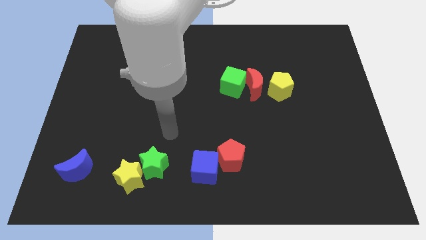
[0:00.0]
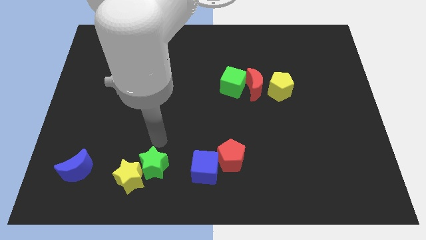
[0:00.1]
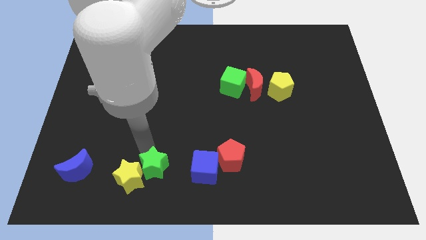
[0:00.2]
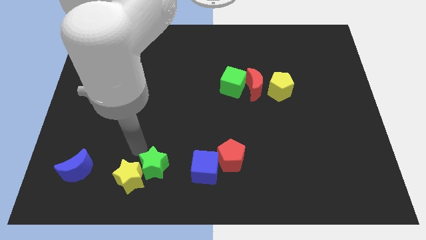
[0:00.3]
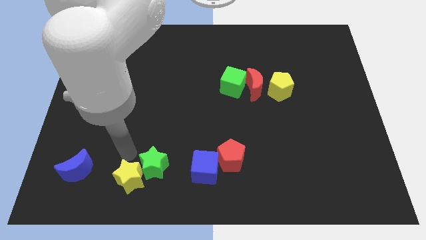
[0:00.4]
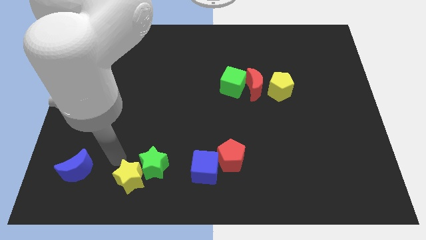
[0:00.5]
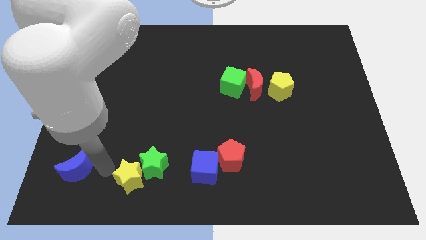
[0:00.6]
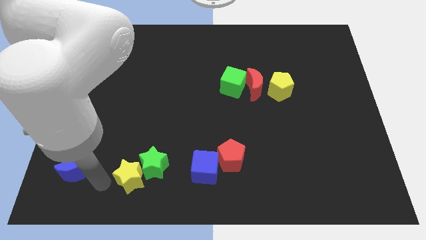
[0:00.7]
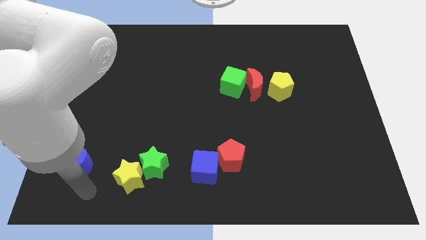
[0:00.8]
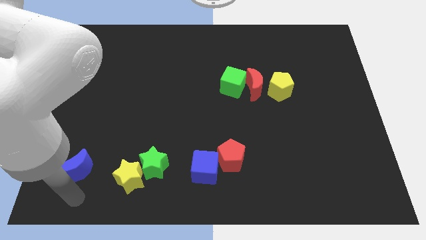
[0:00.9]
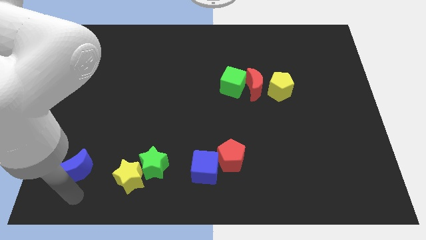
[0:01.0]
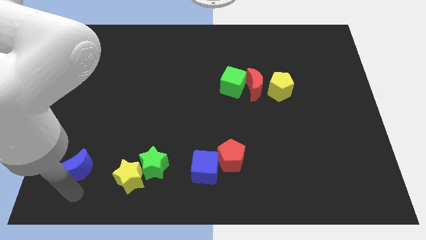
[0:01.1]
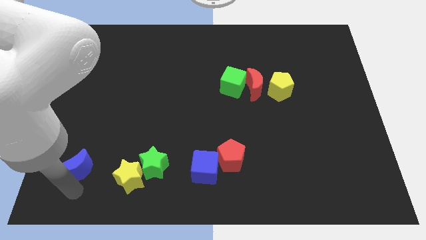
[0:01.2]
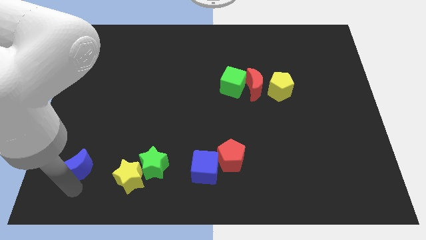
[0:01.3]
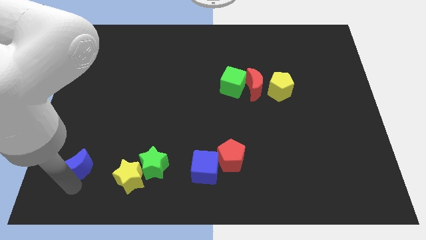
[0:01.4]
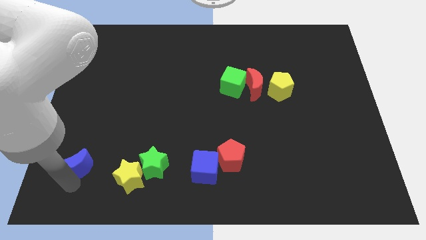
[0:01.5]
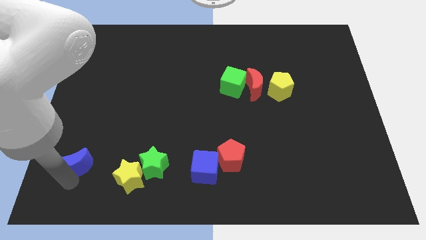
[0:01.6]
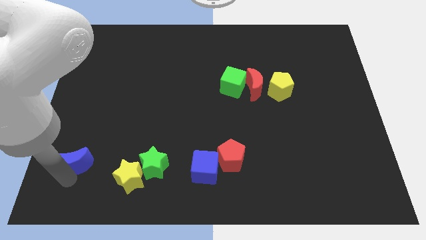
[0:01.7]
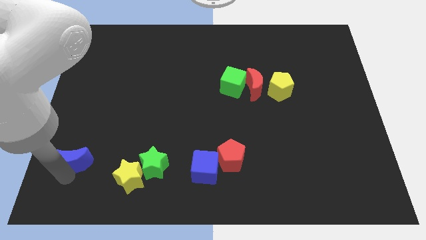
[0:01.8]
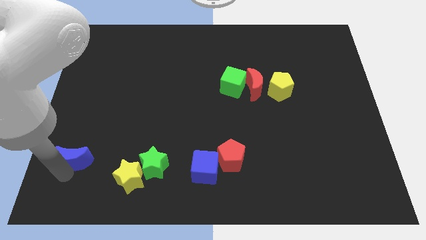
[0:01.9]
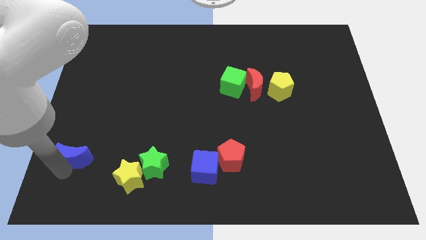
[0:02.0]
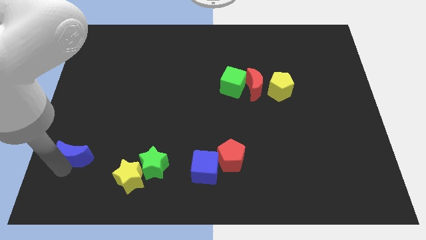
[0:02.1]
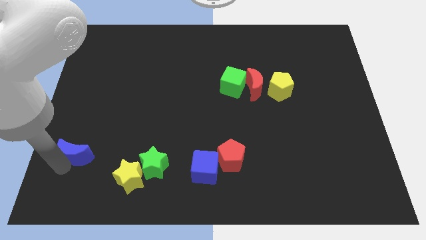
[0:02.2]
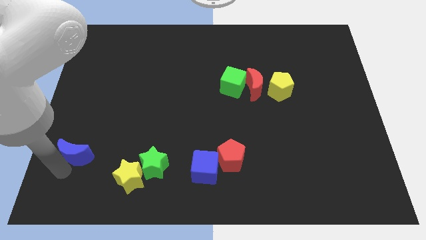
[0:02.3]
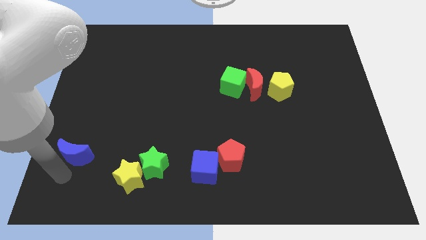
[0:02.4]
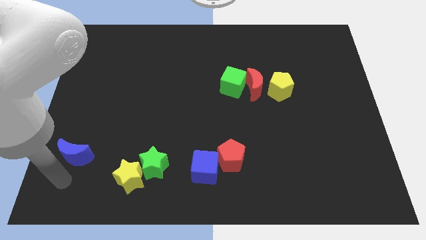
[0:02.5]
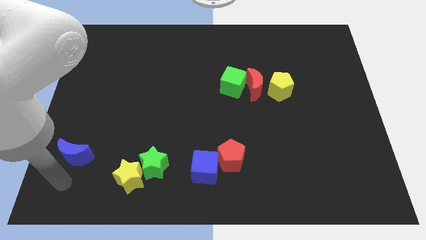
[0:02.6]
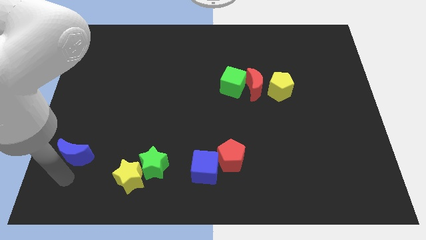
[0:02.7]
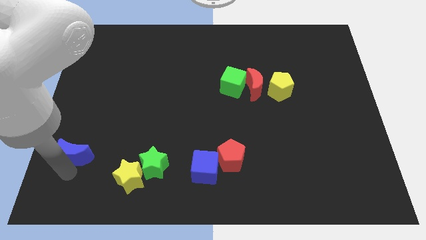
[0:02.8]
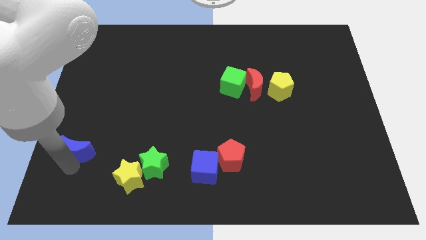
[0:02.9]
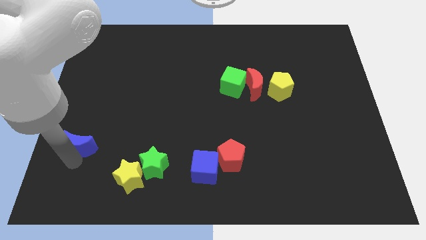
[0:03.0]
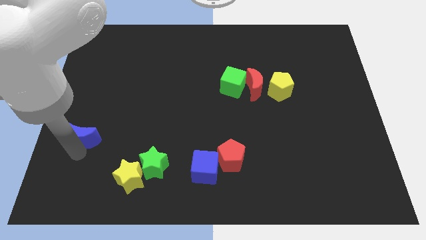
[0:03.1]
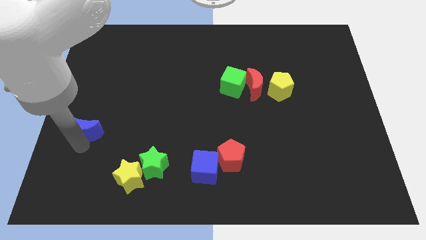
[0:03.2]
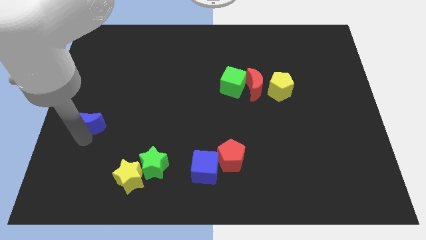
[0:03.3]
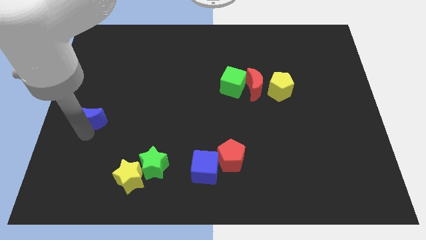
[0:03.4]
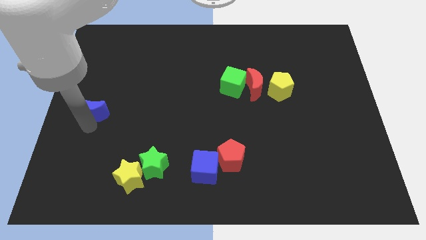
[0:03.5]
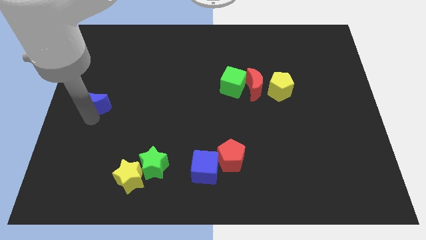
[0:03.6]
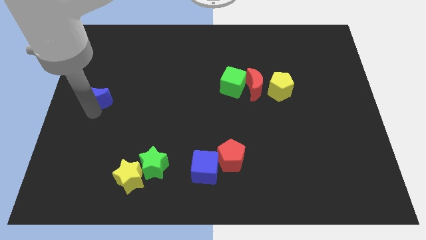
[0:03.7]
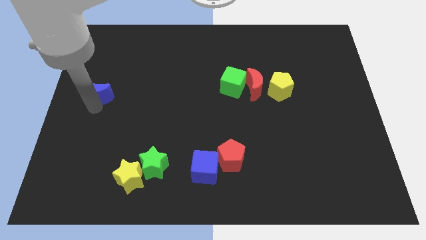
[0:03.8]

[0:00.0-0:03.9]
slide the blue moon up

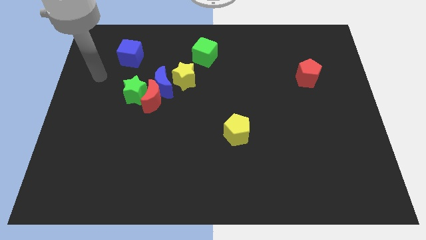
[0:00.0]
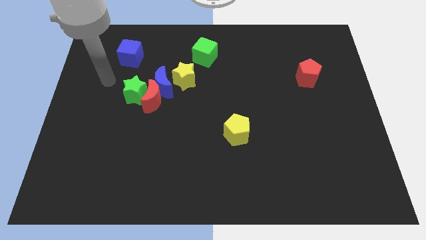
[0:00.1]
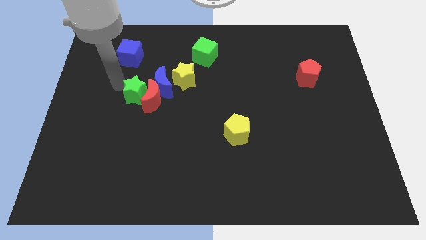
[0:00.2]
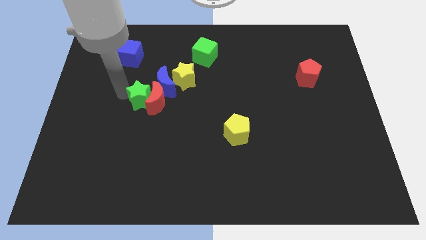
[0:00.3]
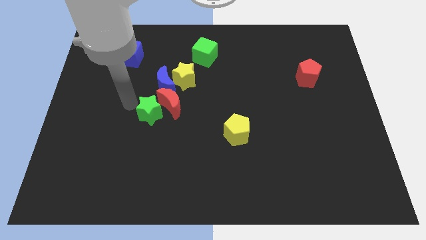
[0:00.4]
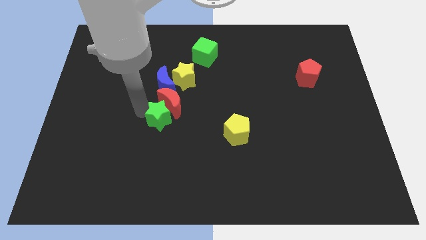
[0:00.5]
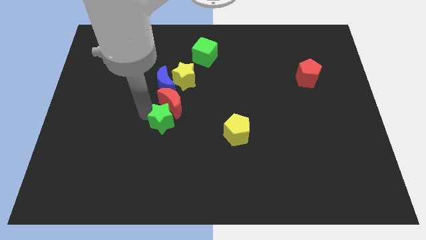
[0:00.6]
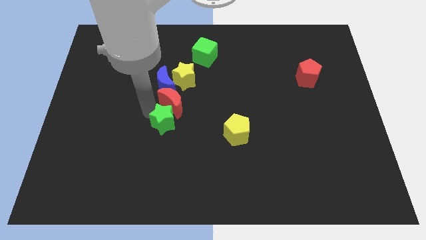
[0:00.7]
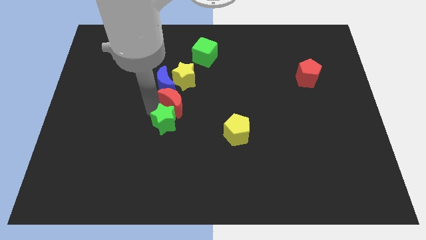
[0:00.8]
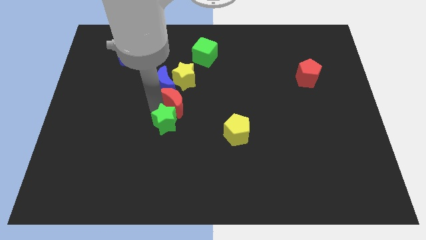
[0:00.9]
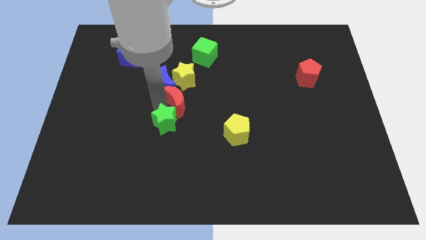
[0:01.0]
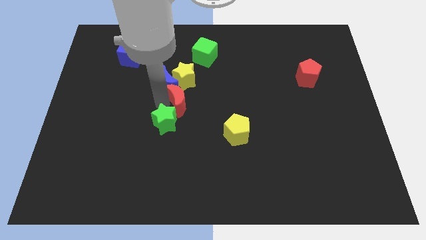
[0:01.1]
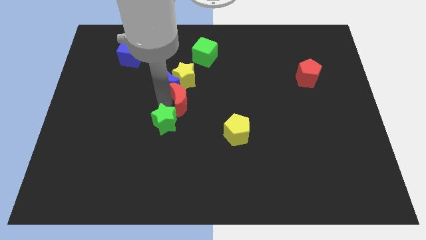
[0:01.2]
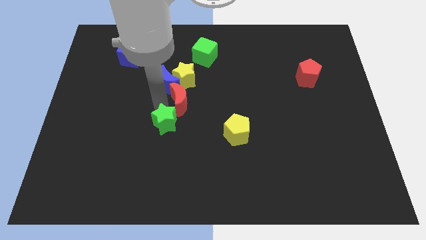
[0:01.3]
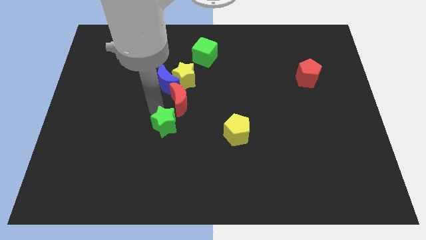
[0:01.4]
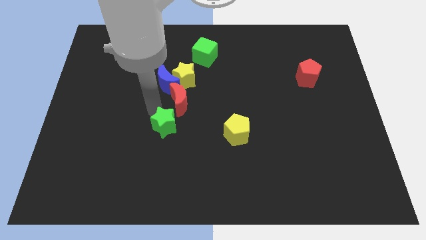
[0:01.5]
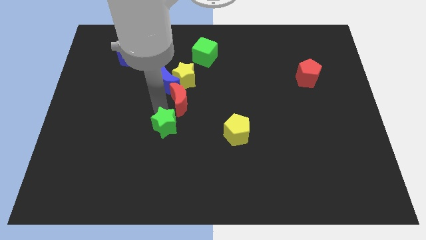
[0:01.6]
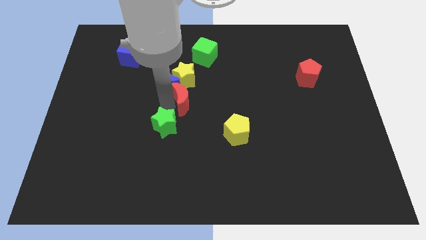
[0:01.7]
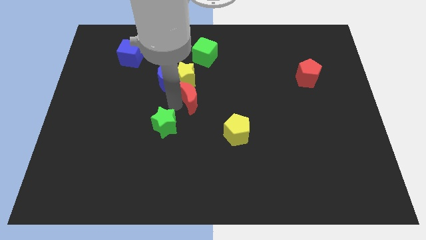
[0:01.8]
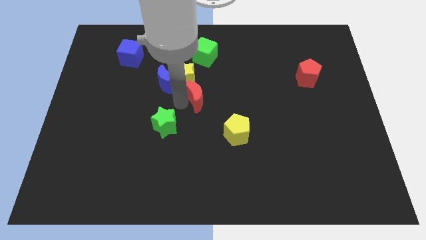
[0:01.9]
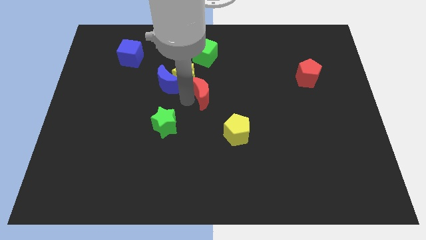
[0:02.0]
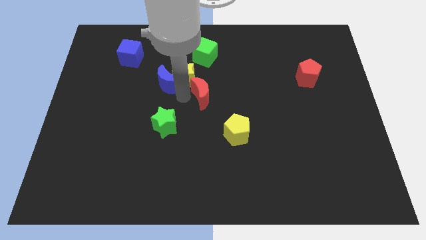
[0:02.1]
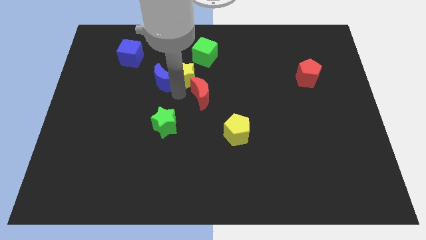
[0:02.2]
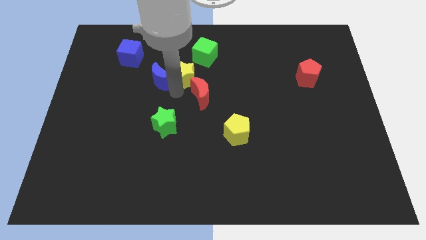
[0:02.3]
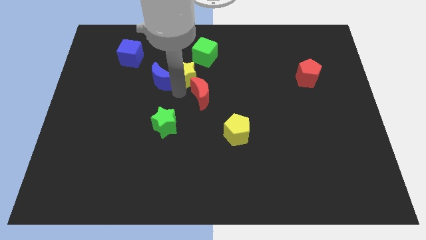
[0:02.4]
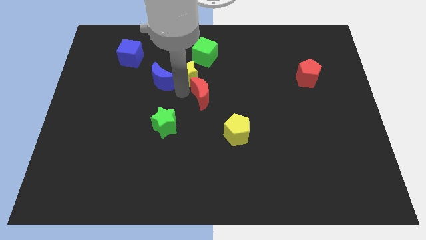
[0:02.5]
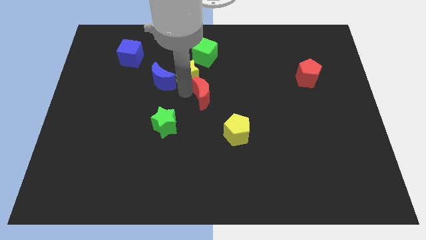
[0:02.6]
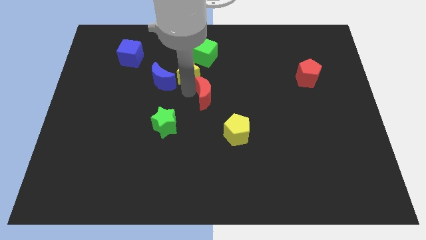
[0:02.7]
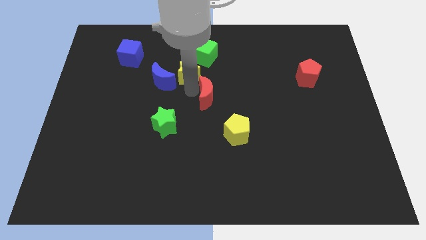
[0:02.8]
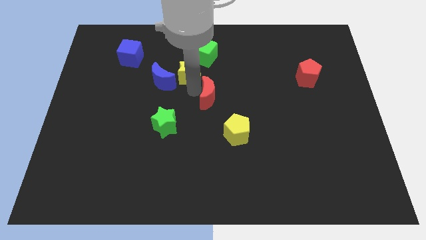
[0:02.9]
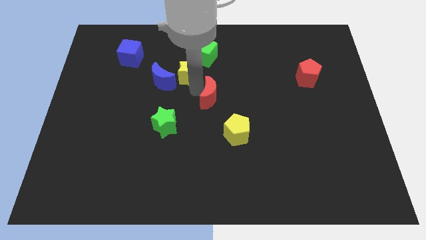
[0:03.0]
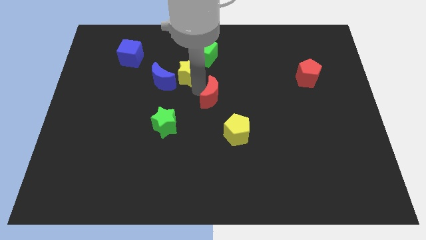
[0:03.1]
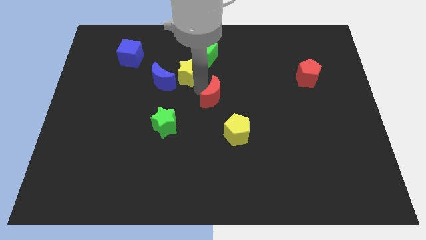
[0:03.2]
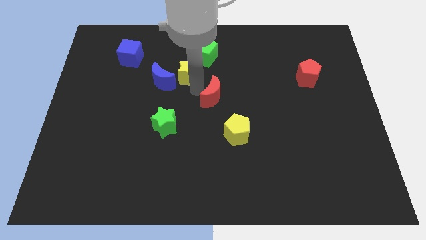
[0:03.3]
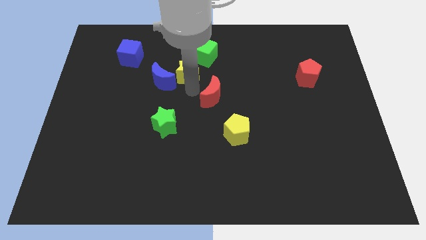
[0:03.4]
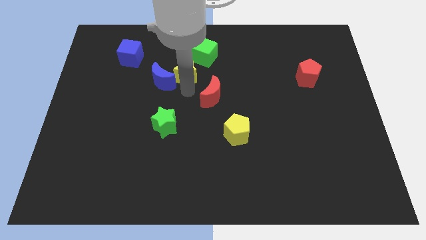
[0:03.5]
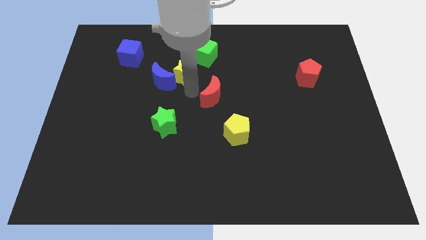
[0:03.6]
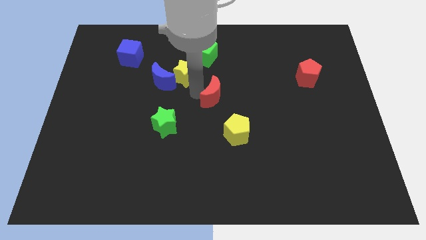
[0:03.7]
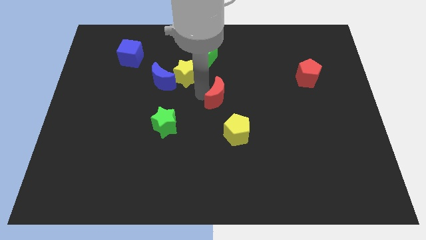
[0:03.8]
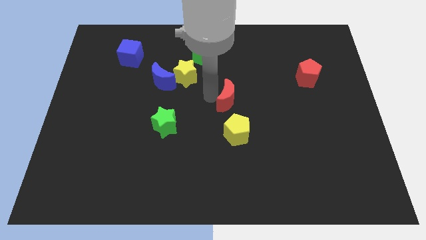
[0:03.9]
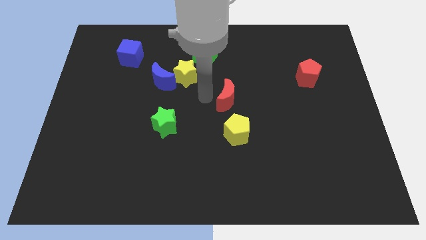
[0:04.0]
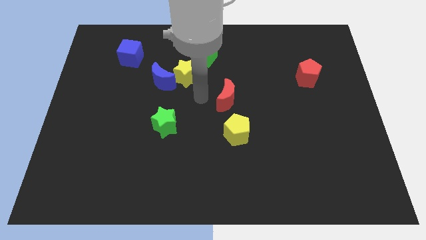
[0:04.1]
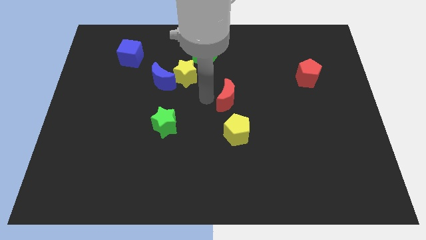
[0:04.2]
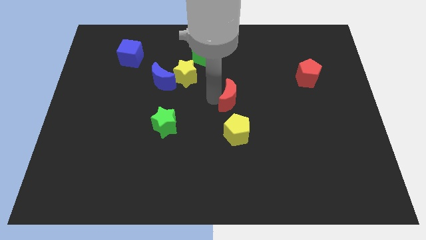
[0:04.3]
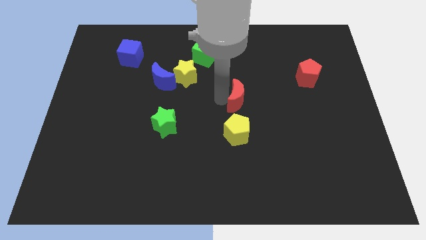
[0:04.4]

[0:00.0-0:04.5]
push the red moon right
